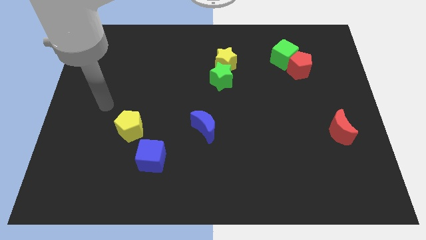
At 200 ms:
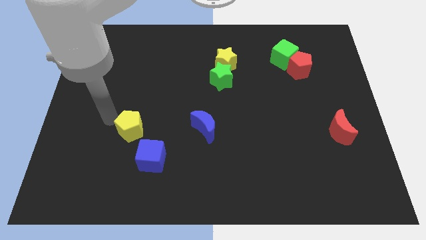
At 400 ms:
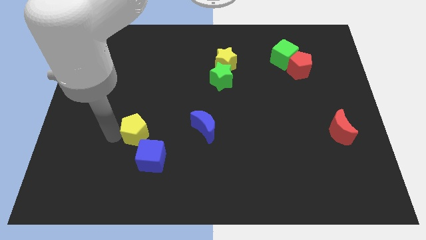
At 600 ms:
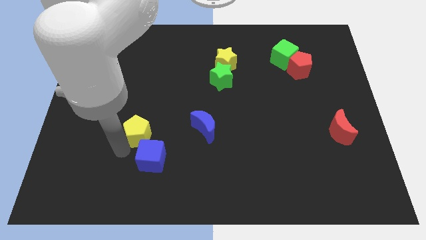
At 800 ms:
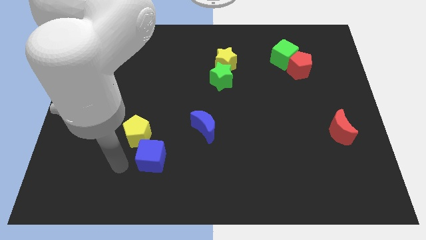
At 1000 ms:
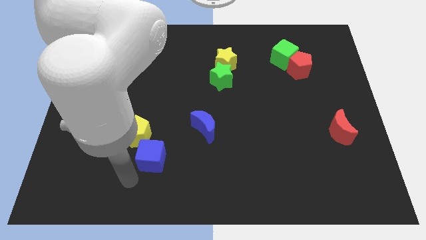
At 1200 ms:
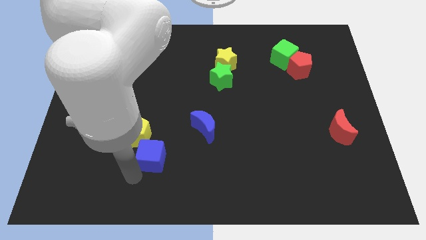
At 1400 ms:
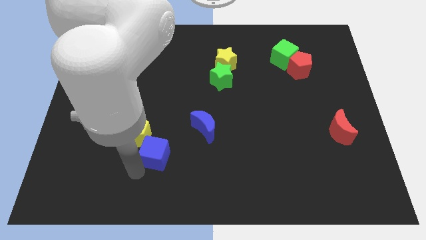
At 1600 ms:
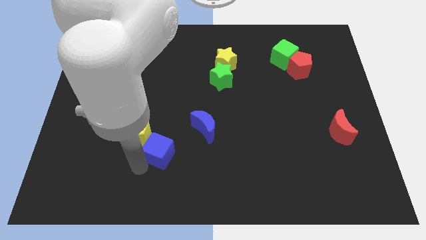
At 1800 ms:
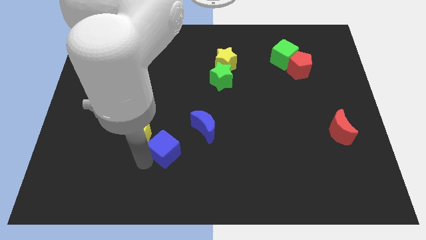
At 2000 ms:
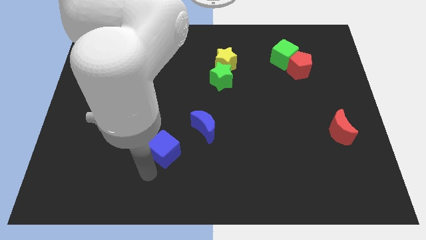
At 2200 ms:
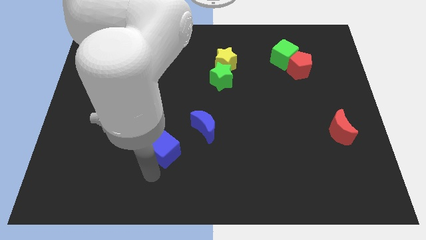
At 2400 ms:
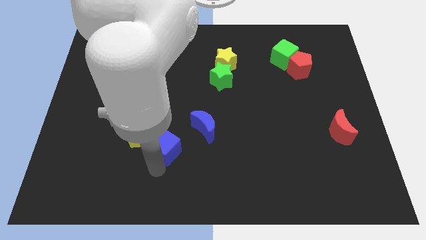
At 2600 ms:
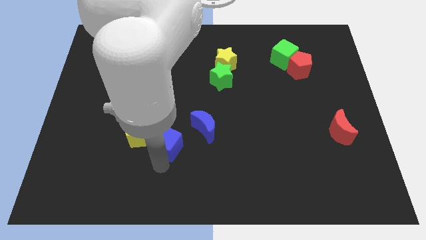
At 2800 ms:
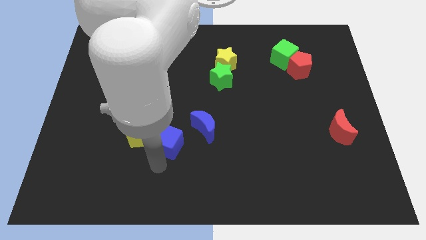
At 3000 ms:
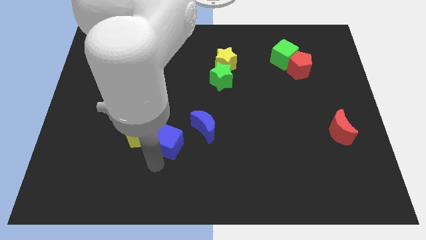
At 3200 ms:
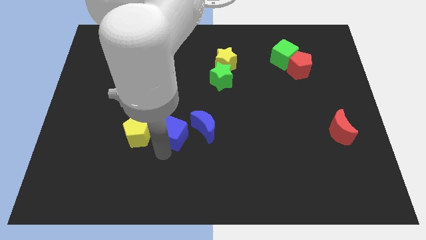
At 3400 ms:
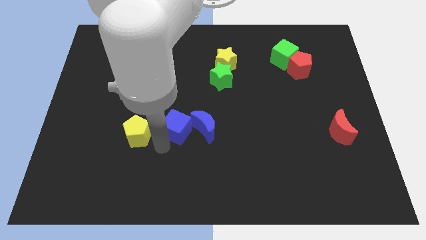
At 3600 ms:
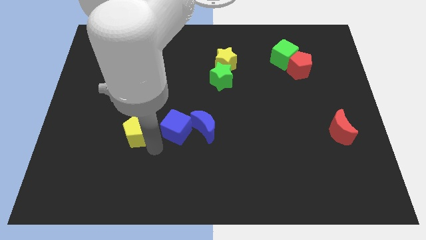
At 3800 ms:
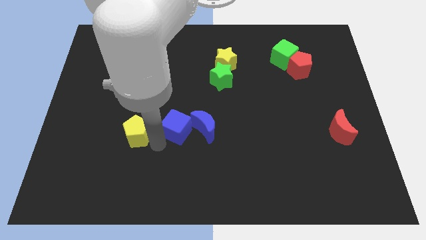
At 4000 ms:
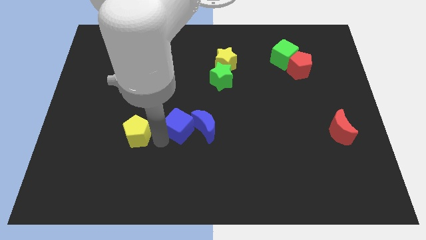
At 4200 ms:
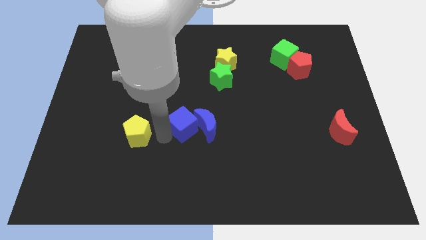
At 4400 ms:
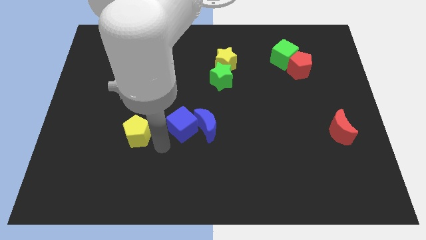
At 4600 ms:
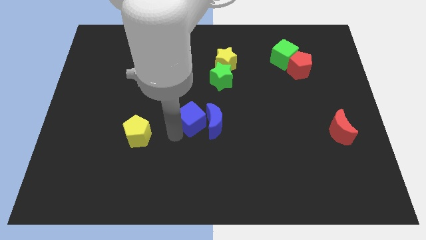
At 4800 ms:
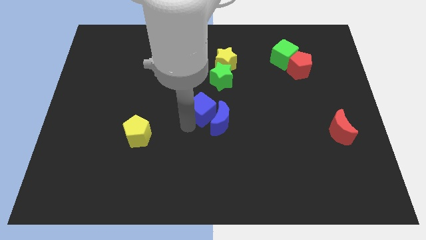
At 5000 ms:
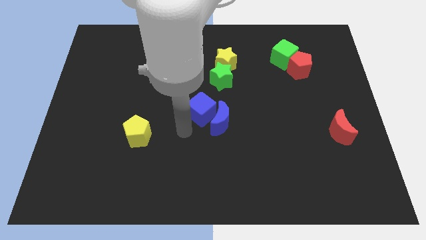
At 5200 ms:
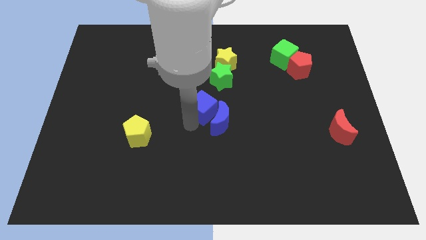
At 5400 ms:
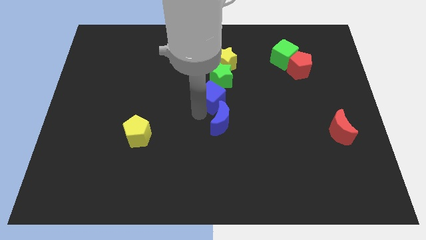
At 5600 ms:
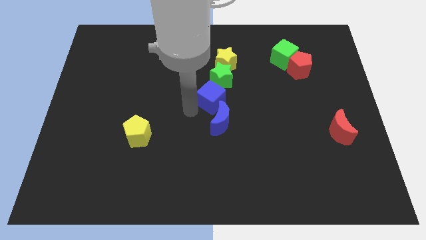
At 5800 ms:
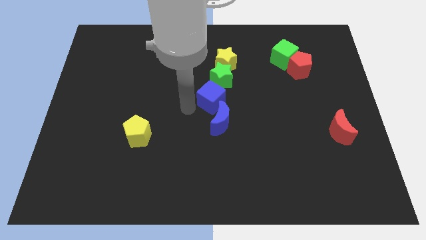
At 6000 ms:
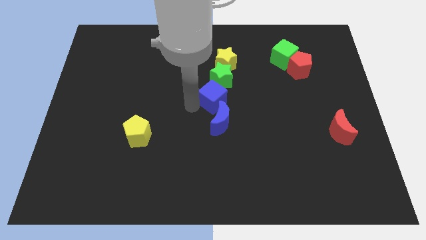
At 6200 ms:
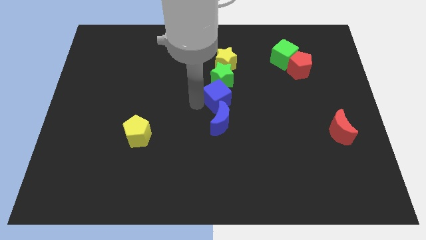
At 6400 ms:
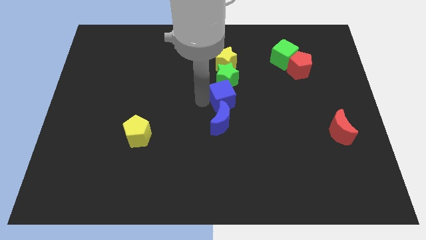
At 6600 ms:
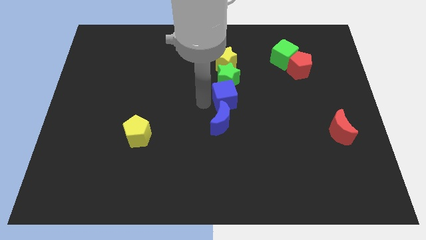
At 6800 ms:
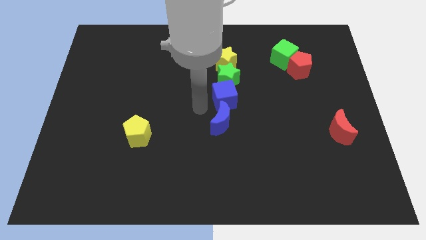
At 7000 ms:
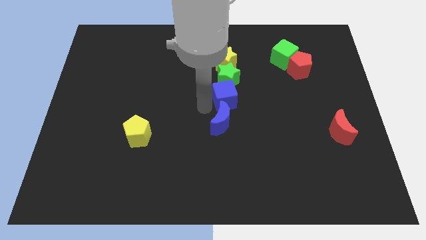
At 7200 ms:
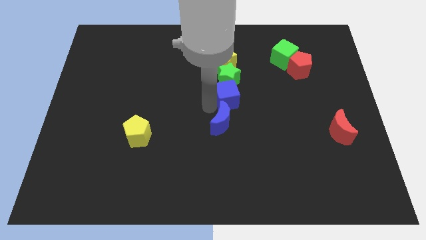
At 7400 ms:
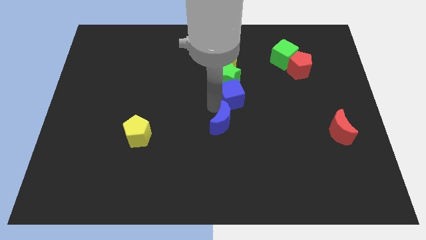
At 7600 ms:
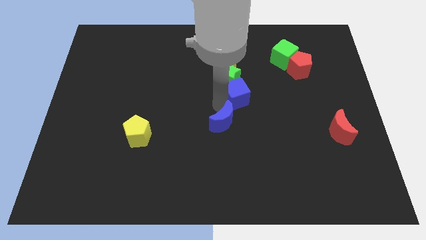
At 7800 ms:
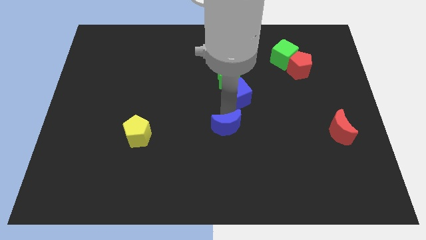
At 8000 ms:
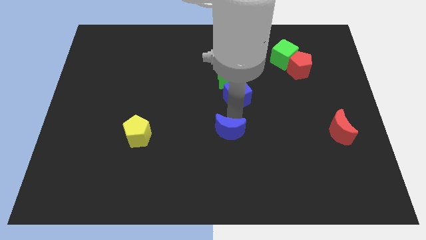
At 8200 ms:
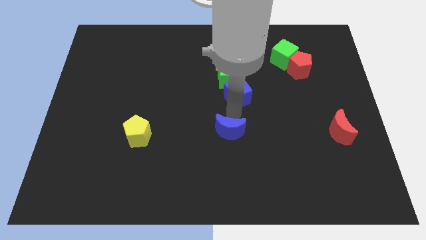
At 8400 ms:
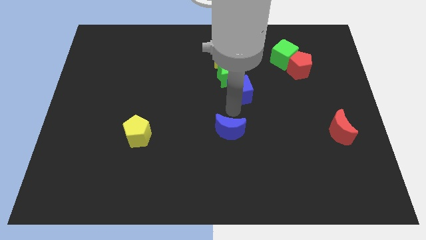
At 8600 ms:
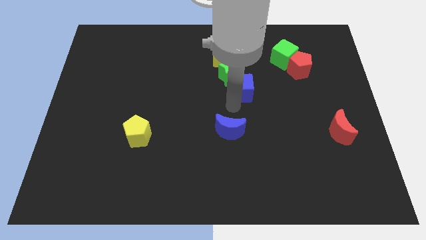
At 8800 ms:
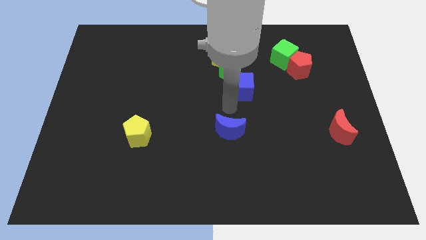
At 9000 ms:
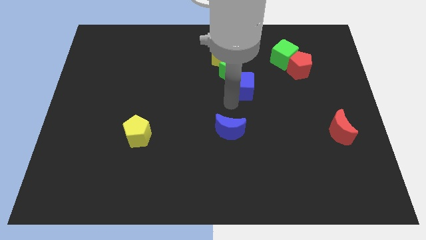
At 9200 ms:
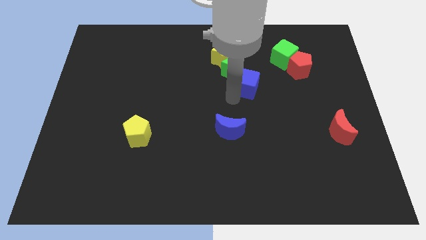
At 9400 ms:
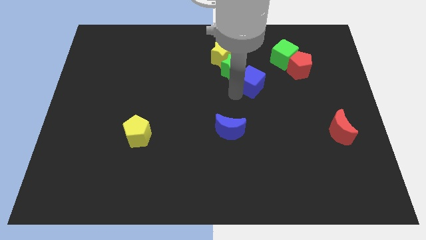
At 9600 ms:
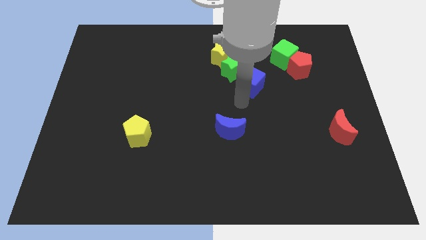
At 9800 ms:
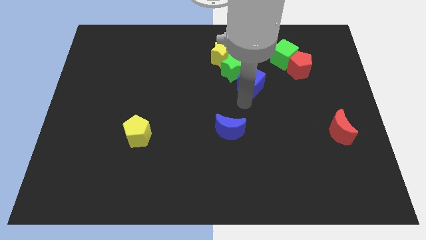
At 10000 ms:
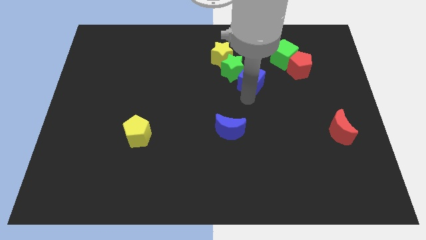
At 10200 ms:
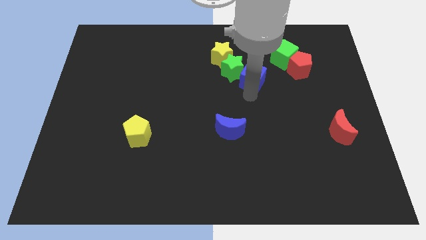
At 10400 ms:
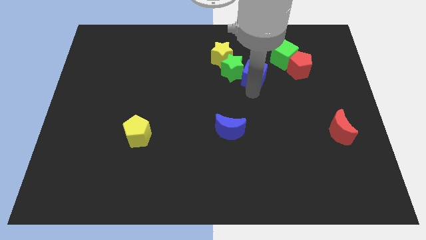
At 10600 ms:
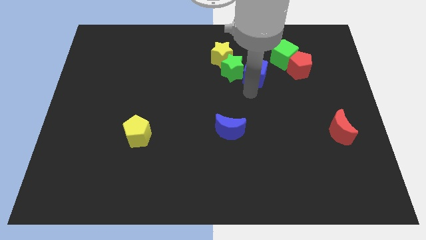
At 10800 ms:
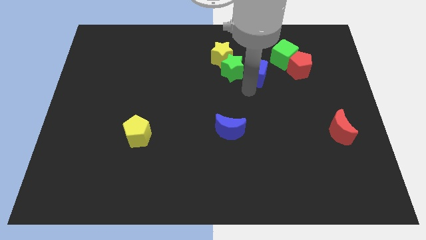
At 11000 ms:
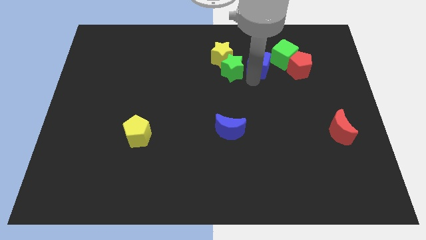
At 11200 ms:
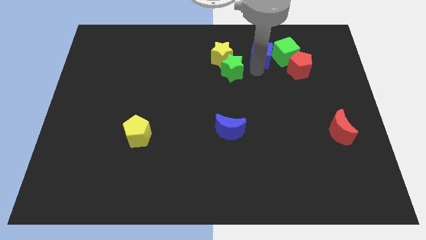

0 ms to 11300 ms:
put the blue cube to the top left side of the red pentagon

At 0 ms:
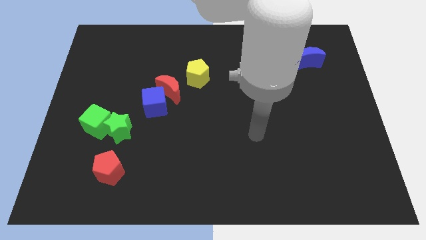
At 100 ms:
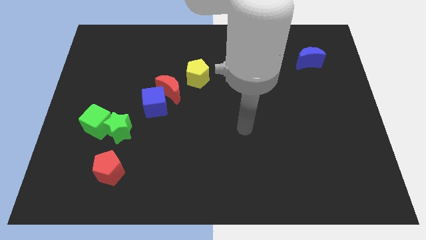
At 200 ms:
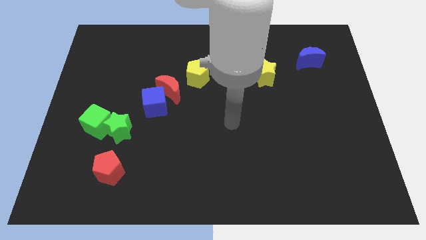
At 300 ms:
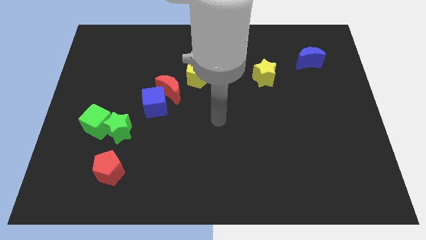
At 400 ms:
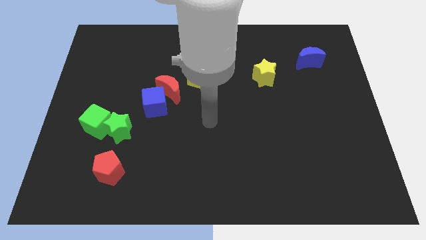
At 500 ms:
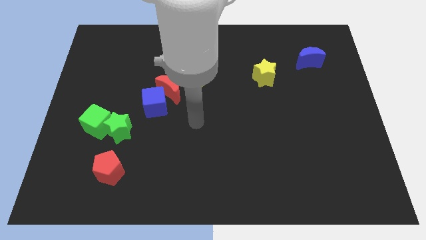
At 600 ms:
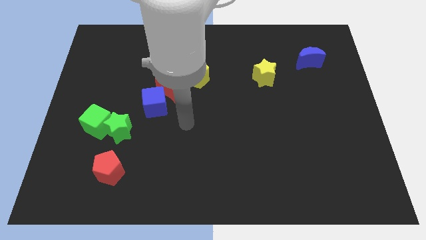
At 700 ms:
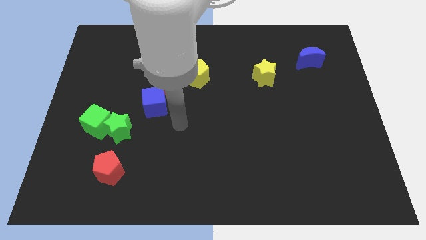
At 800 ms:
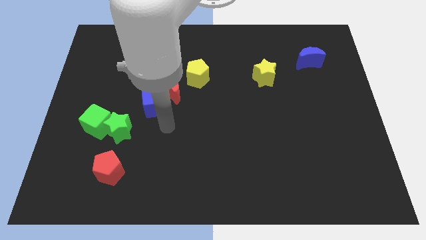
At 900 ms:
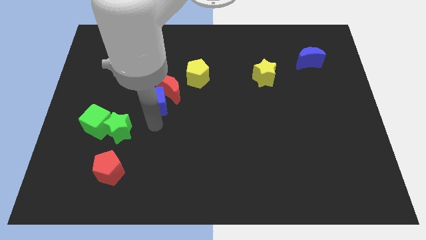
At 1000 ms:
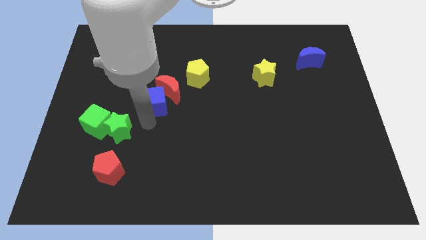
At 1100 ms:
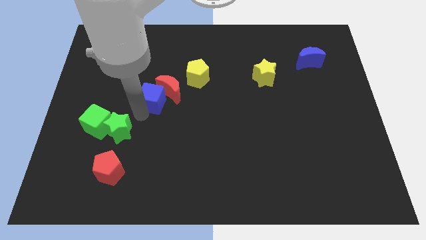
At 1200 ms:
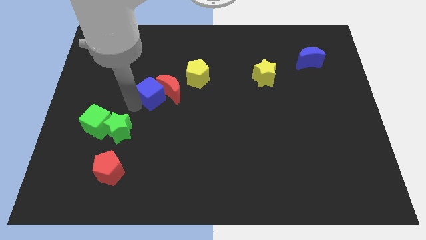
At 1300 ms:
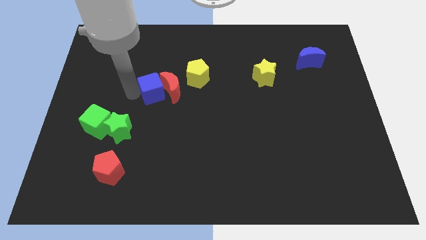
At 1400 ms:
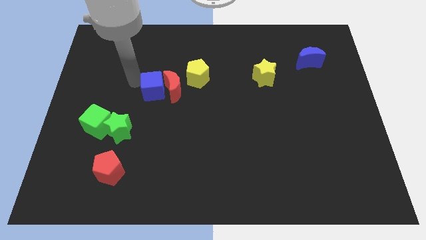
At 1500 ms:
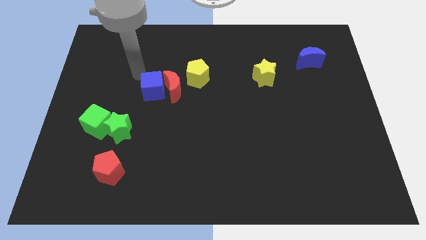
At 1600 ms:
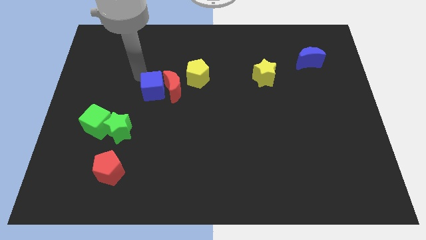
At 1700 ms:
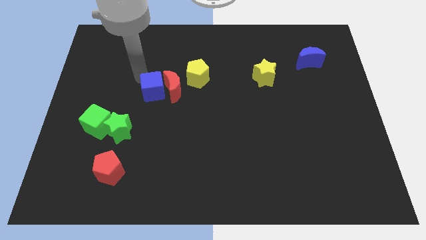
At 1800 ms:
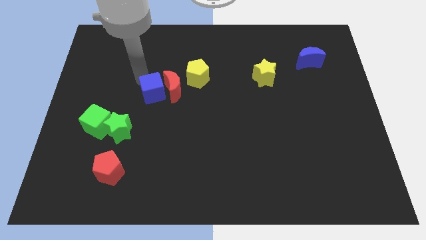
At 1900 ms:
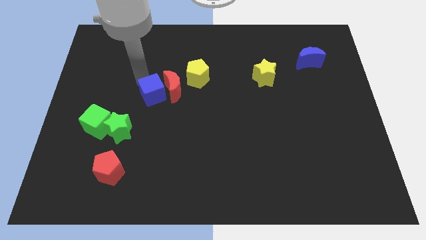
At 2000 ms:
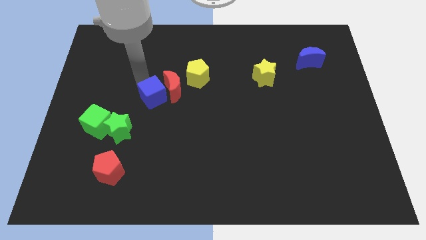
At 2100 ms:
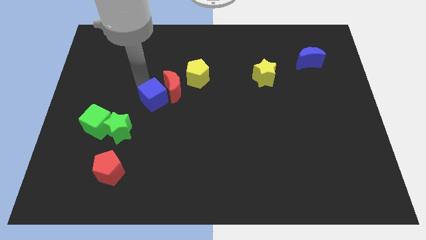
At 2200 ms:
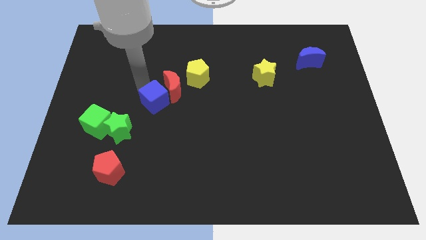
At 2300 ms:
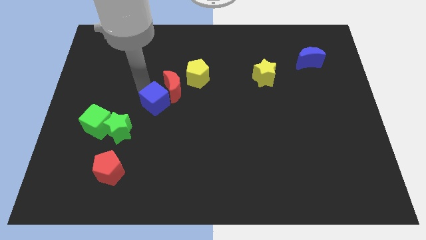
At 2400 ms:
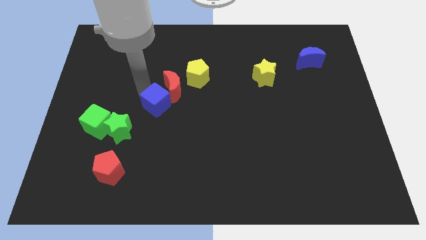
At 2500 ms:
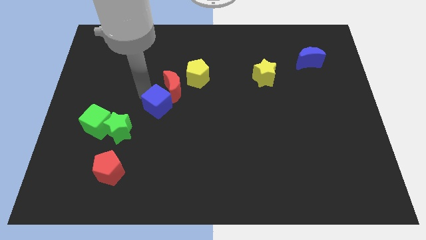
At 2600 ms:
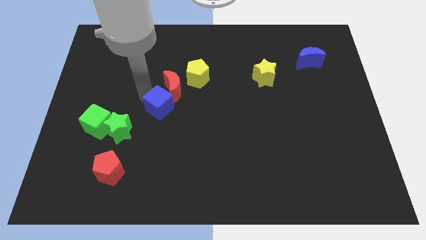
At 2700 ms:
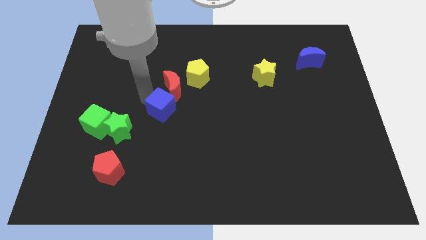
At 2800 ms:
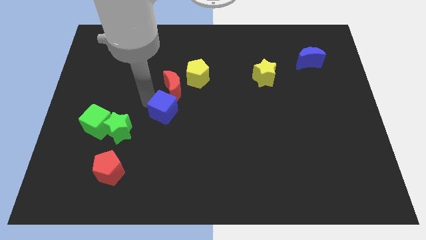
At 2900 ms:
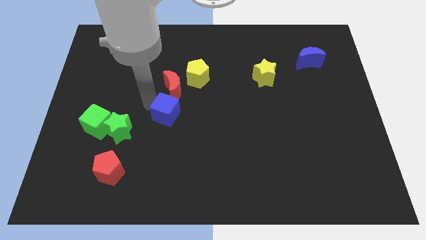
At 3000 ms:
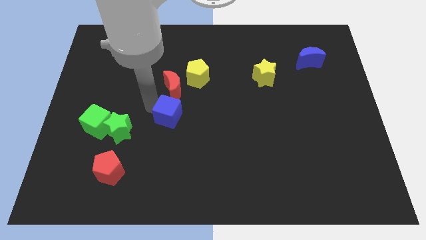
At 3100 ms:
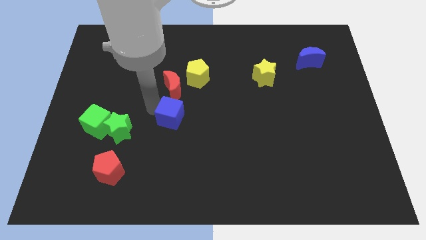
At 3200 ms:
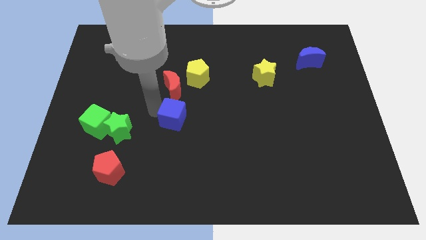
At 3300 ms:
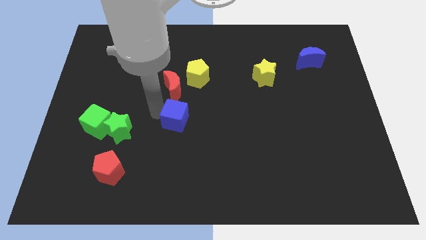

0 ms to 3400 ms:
move the blue cube to the bottom of the yellow pentagon
